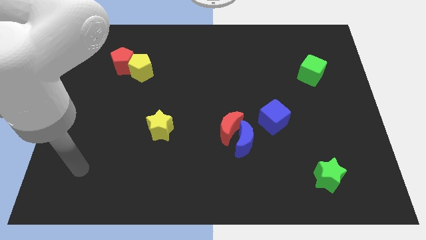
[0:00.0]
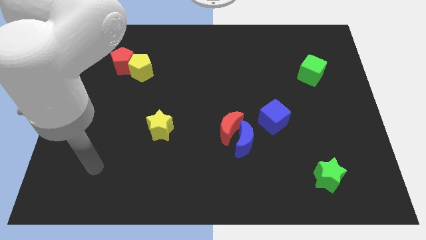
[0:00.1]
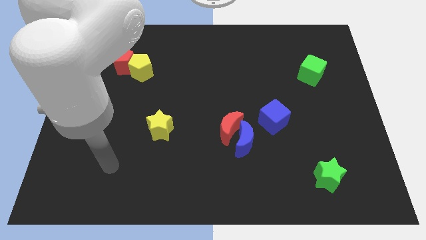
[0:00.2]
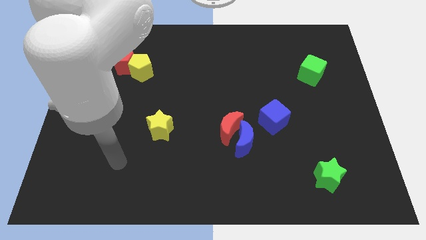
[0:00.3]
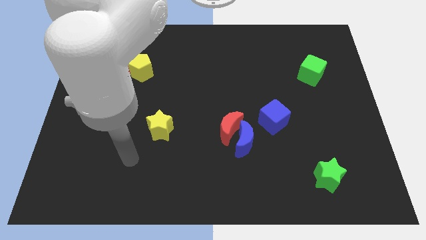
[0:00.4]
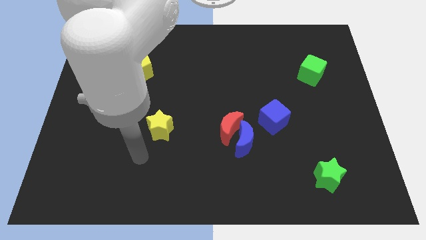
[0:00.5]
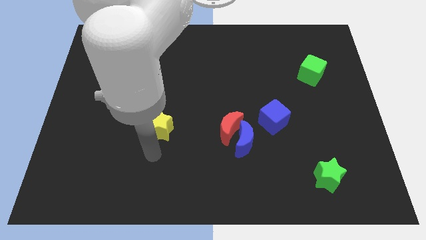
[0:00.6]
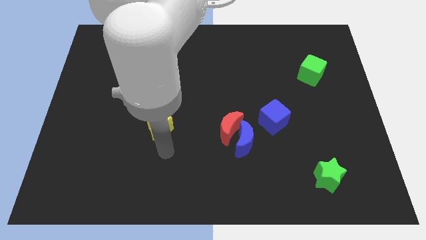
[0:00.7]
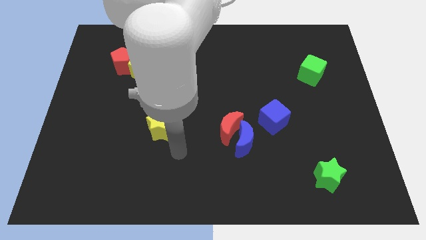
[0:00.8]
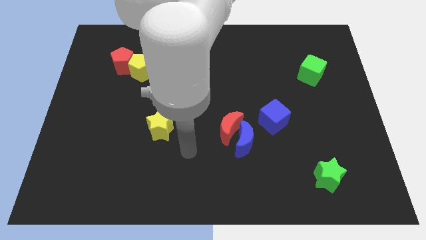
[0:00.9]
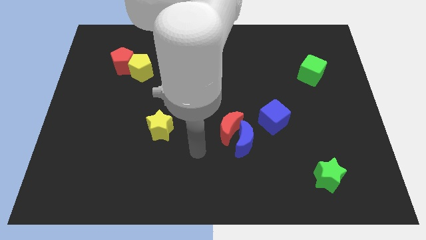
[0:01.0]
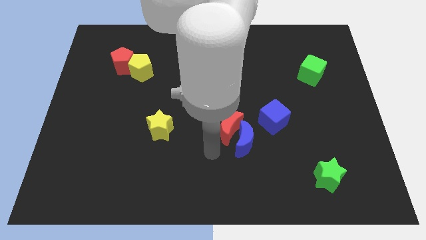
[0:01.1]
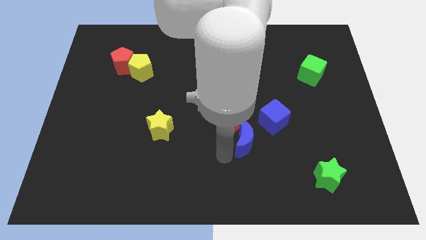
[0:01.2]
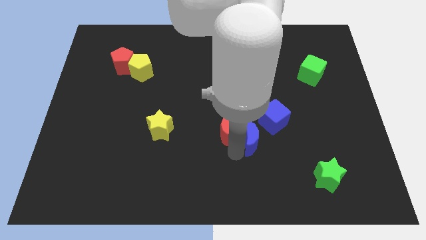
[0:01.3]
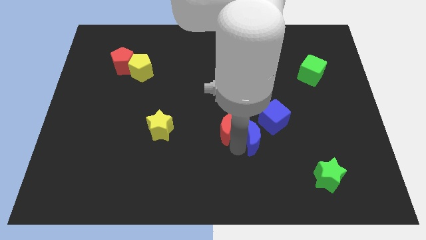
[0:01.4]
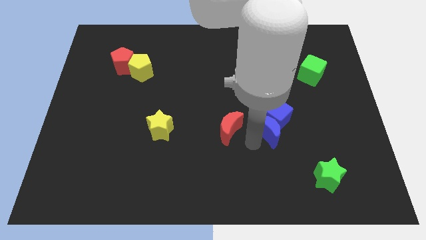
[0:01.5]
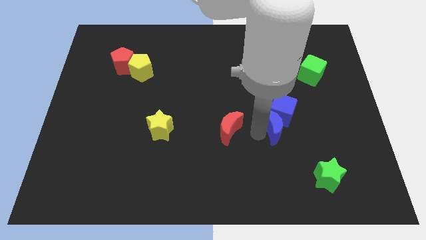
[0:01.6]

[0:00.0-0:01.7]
separate the red moon from the blue moon

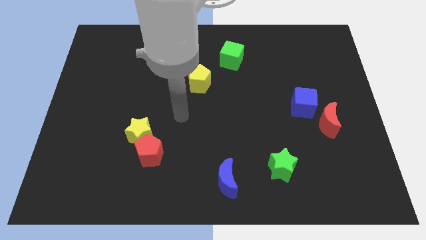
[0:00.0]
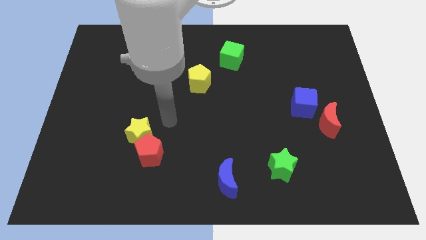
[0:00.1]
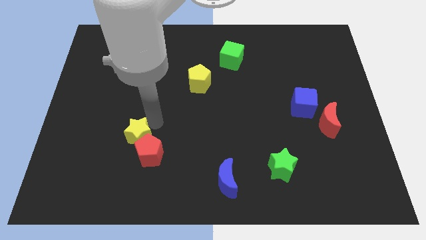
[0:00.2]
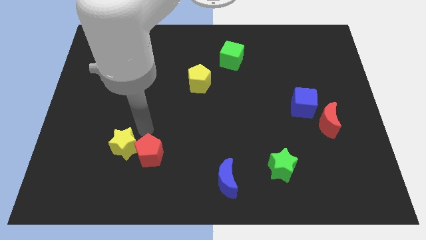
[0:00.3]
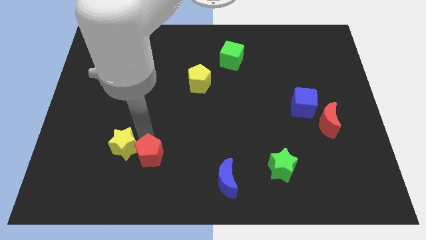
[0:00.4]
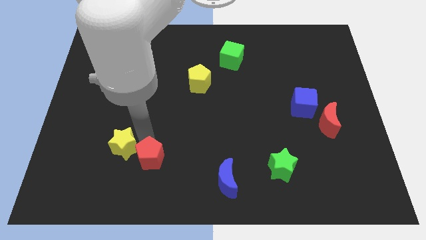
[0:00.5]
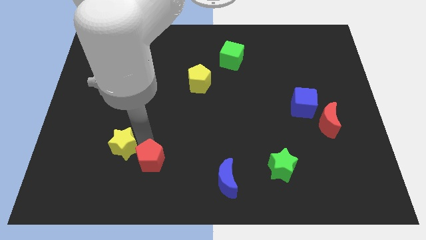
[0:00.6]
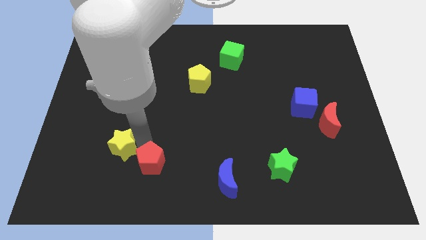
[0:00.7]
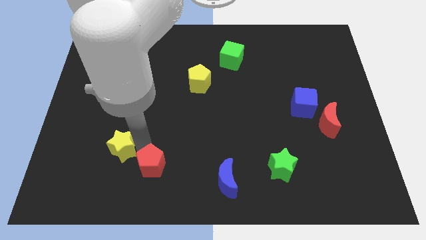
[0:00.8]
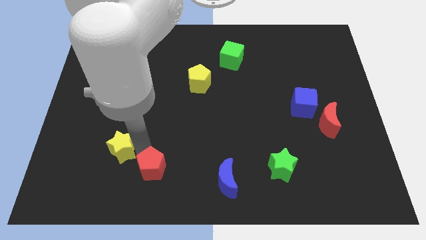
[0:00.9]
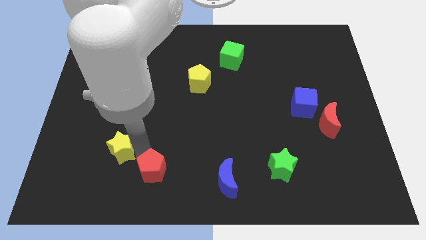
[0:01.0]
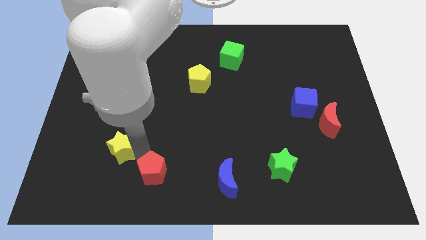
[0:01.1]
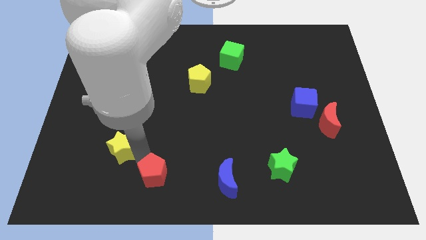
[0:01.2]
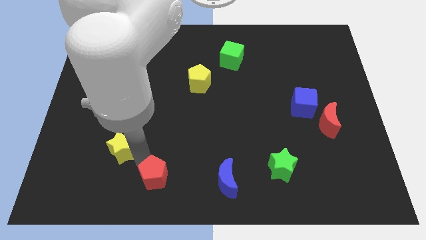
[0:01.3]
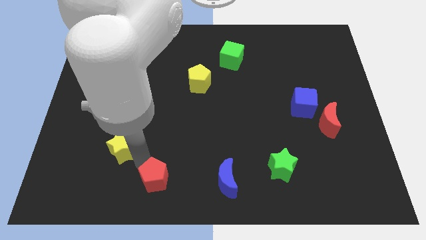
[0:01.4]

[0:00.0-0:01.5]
move the red pentagon away from the yellow star

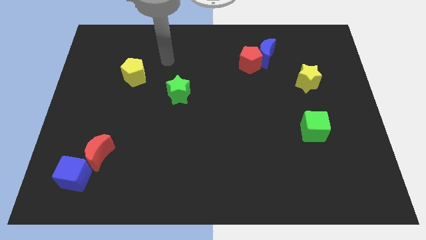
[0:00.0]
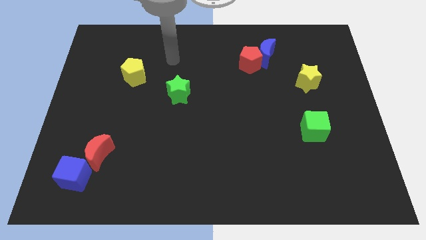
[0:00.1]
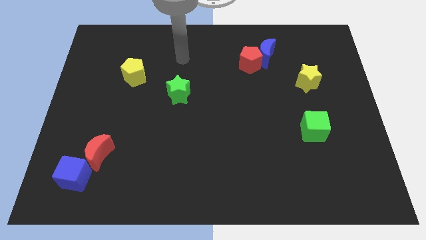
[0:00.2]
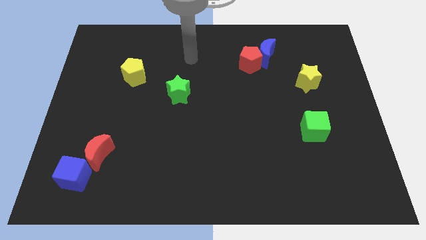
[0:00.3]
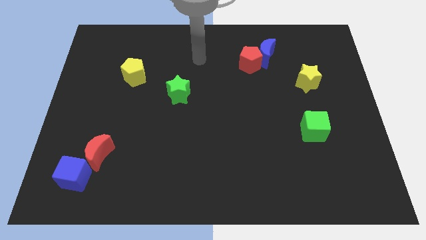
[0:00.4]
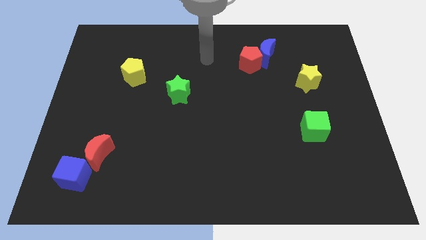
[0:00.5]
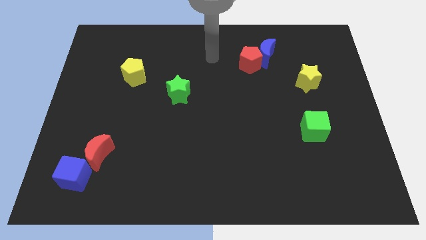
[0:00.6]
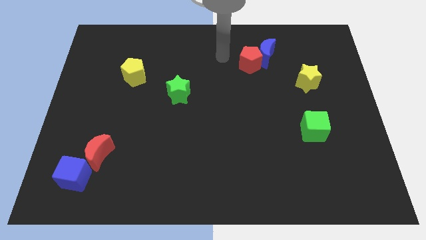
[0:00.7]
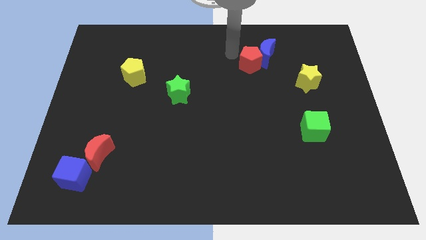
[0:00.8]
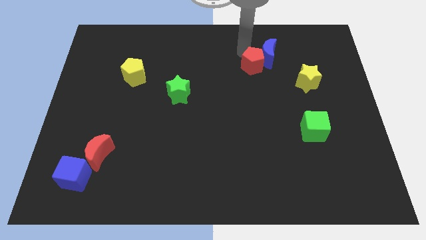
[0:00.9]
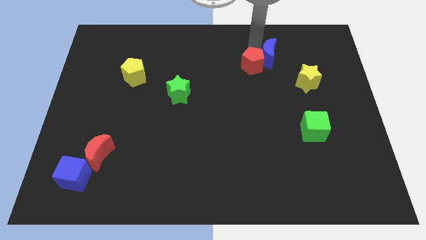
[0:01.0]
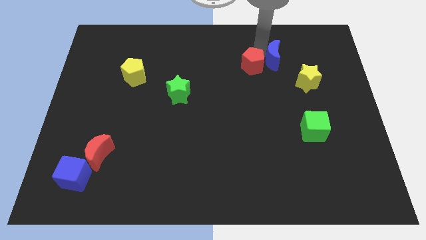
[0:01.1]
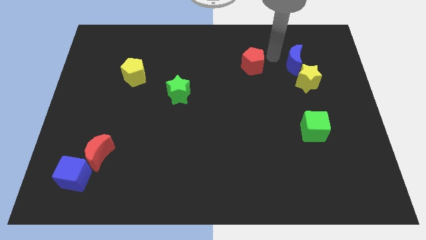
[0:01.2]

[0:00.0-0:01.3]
separate the red pentagon from the blue moon

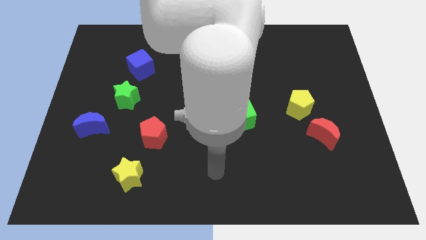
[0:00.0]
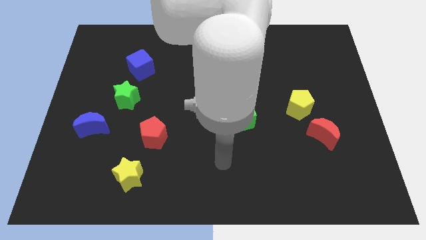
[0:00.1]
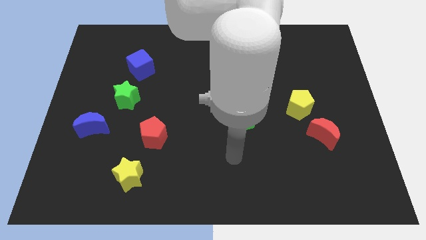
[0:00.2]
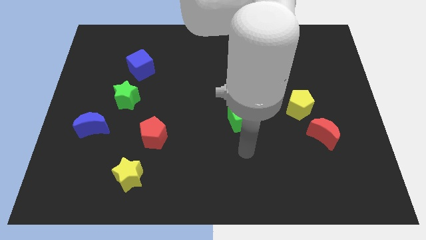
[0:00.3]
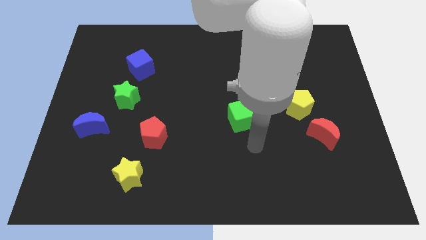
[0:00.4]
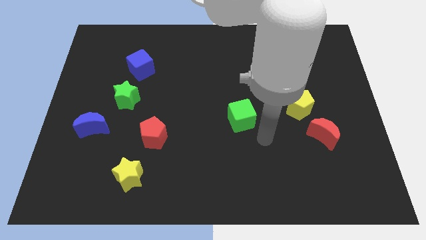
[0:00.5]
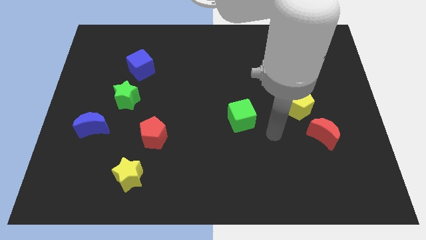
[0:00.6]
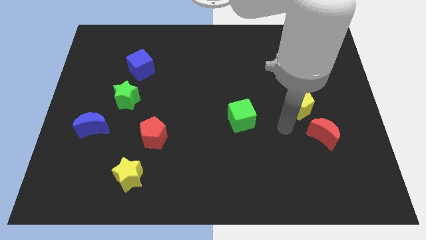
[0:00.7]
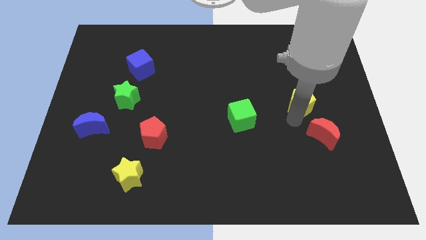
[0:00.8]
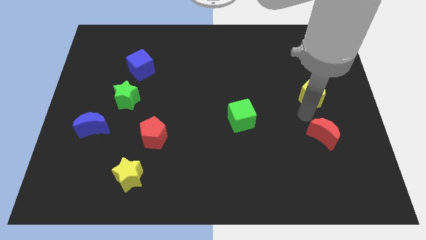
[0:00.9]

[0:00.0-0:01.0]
separate the red moon from the yellow pentagon

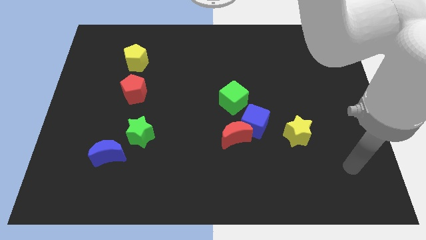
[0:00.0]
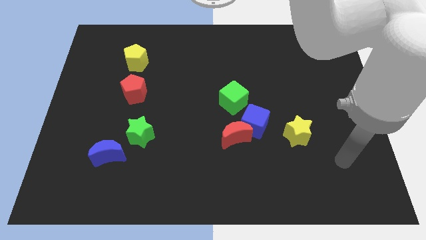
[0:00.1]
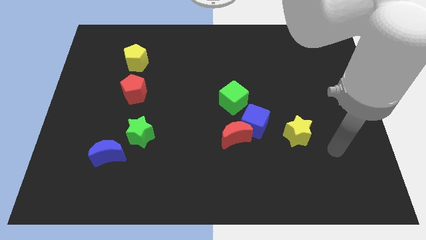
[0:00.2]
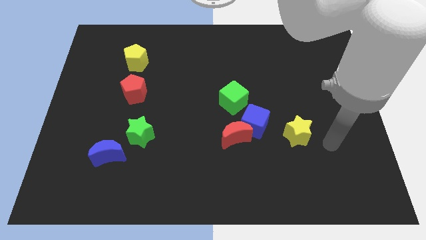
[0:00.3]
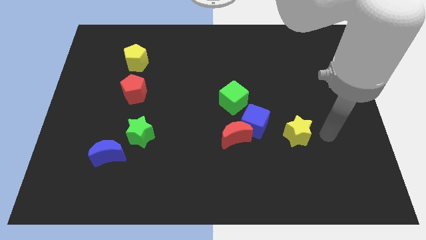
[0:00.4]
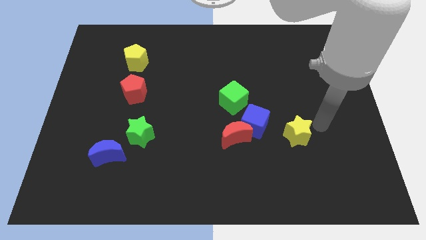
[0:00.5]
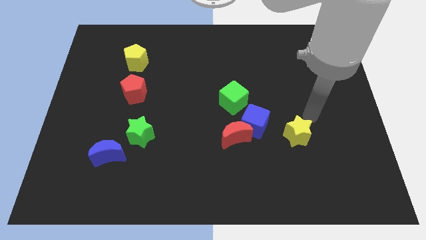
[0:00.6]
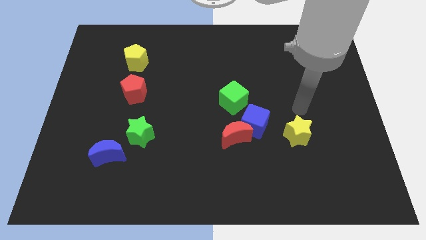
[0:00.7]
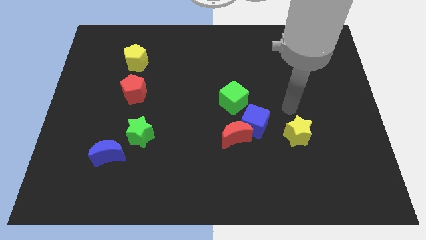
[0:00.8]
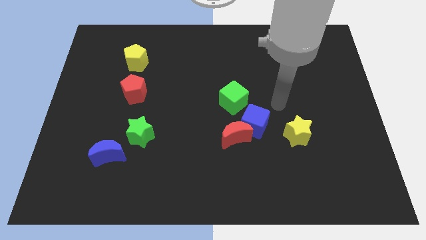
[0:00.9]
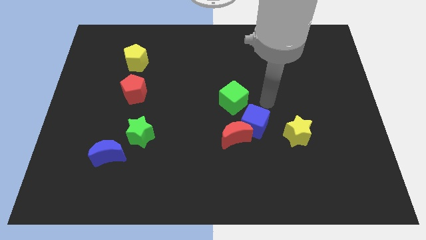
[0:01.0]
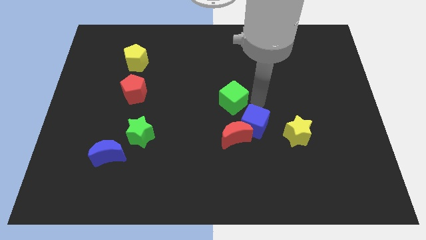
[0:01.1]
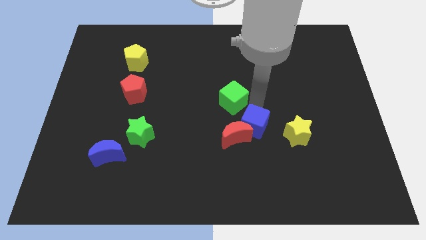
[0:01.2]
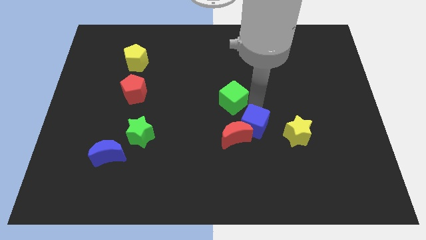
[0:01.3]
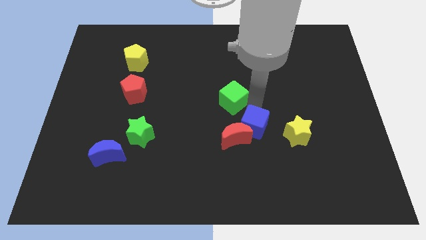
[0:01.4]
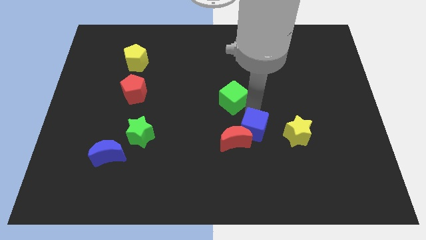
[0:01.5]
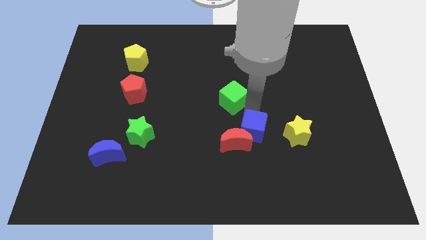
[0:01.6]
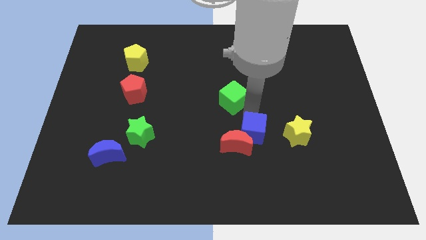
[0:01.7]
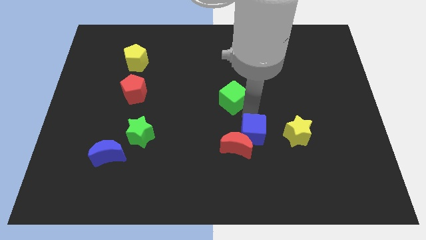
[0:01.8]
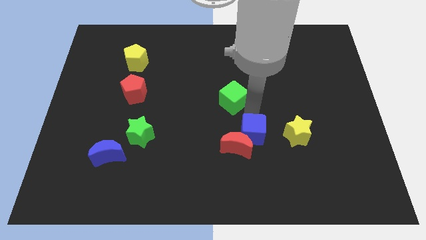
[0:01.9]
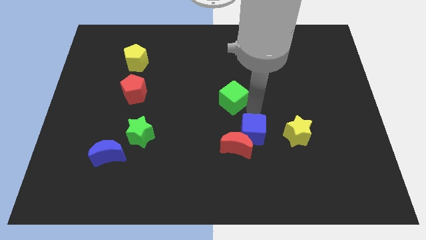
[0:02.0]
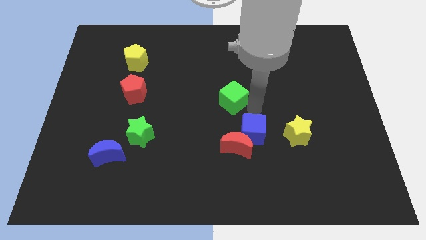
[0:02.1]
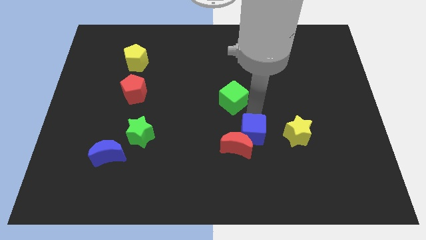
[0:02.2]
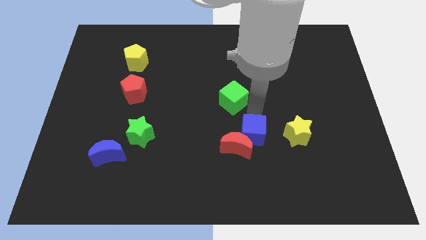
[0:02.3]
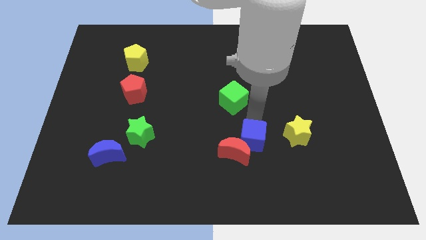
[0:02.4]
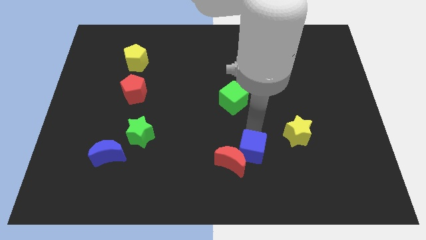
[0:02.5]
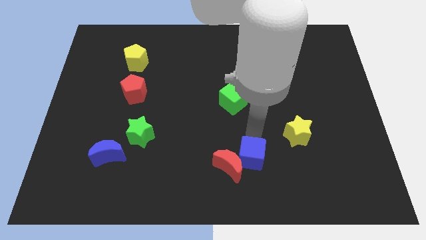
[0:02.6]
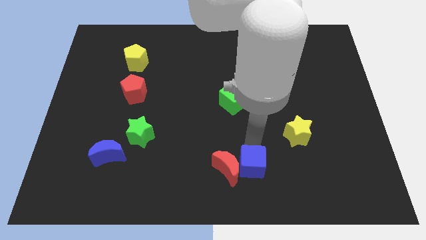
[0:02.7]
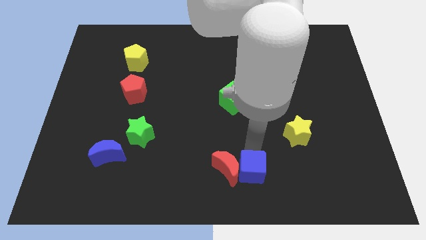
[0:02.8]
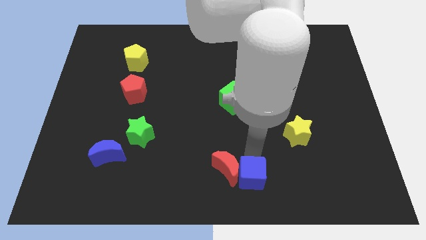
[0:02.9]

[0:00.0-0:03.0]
separate the blue cube from the clump

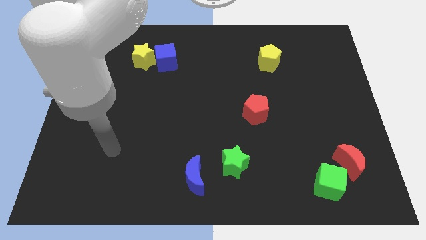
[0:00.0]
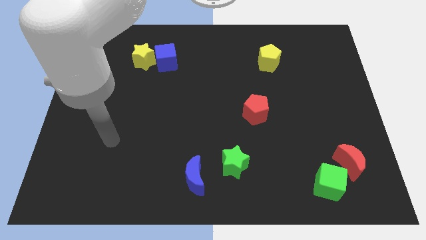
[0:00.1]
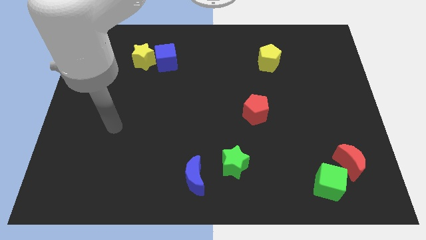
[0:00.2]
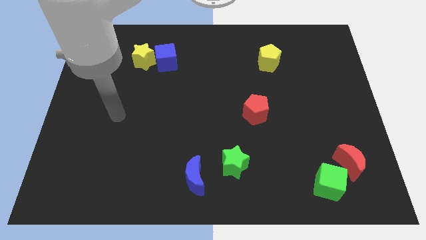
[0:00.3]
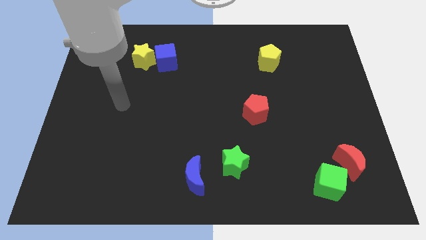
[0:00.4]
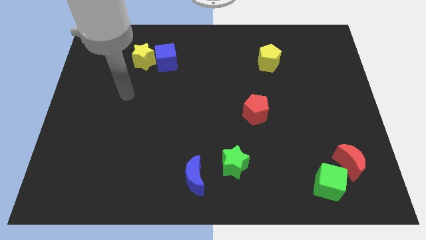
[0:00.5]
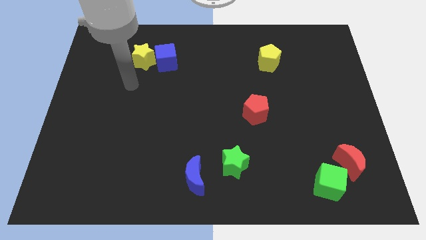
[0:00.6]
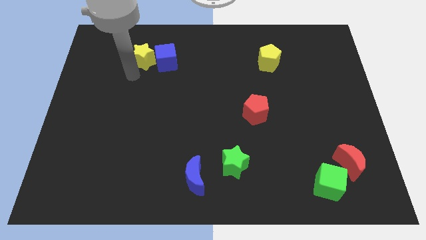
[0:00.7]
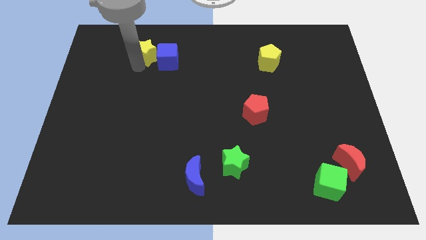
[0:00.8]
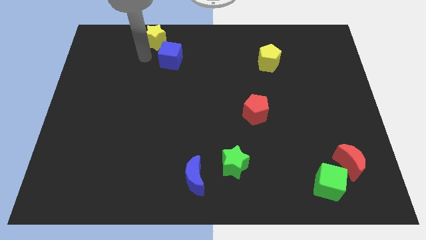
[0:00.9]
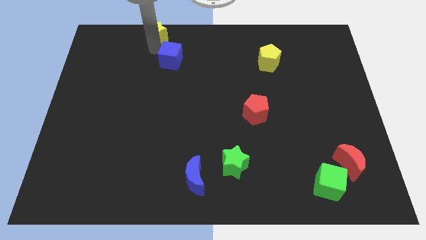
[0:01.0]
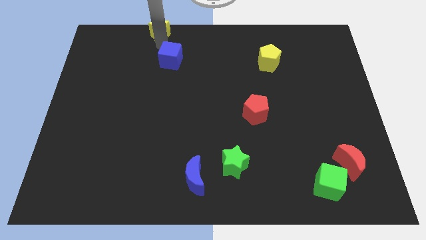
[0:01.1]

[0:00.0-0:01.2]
pull the blue cube apart from the yellow star
